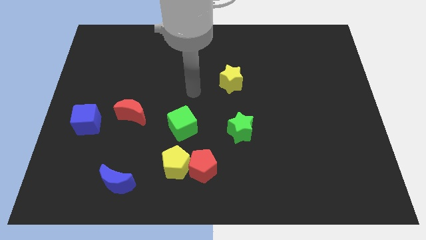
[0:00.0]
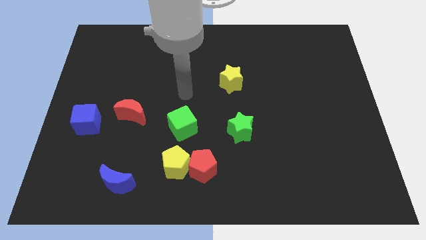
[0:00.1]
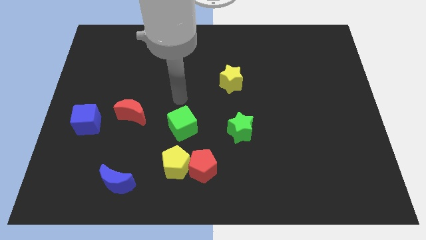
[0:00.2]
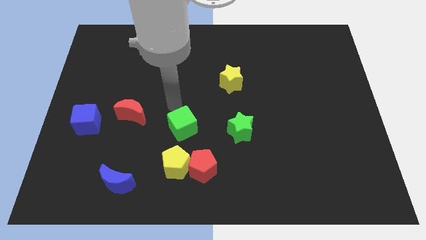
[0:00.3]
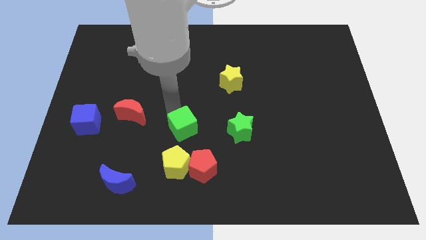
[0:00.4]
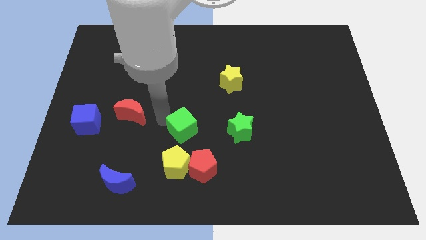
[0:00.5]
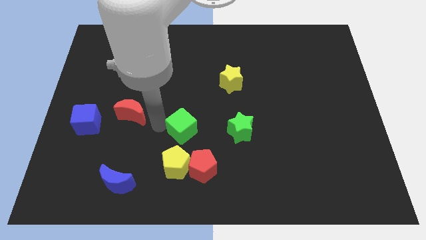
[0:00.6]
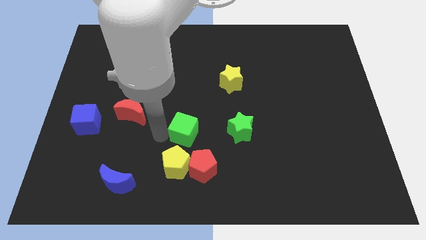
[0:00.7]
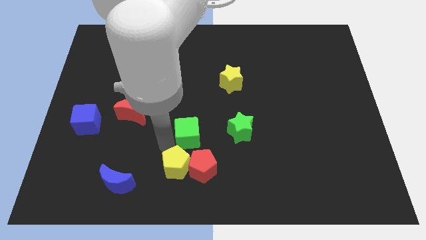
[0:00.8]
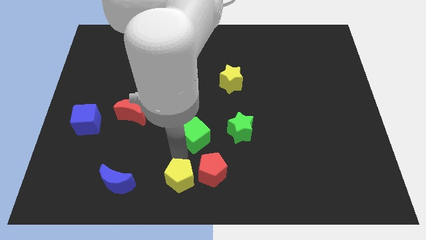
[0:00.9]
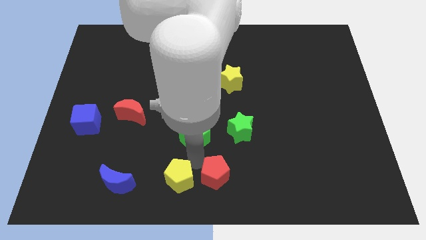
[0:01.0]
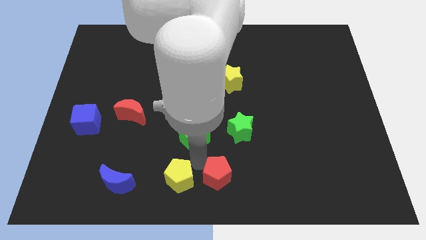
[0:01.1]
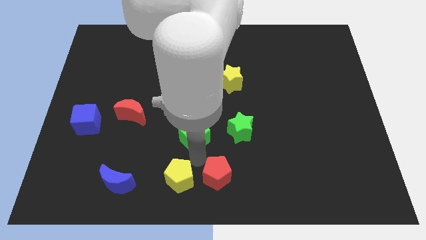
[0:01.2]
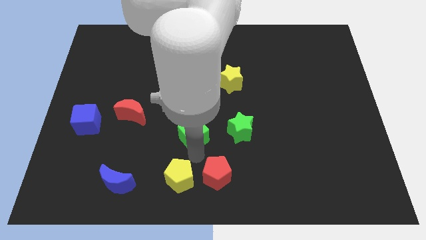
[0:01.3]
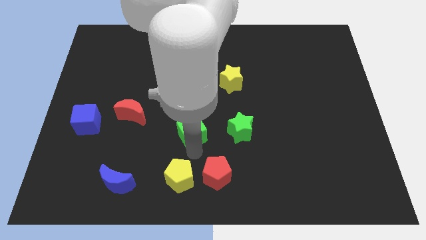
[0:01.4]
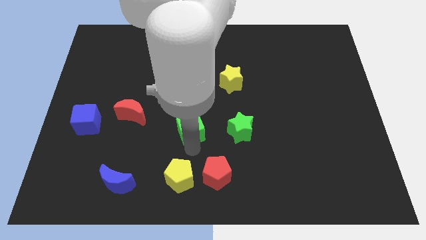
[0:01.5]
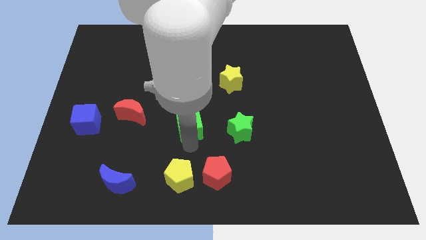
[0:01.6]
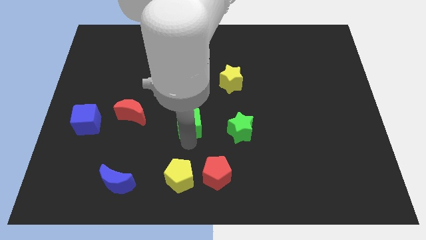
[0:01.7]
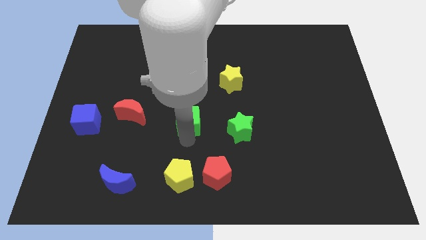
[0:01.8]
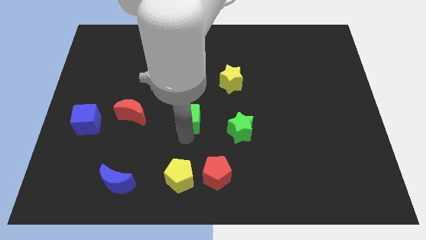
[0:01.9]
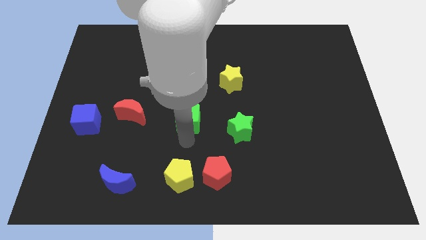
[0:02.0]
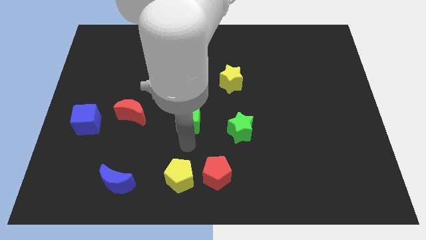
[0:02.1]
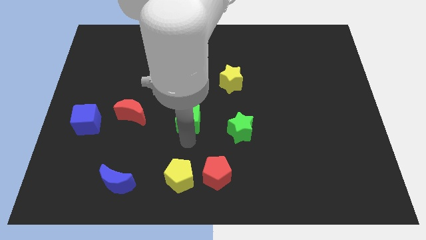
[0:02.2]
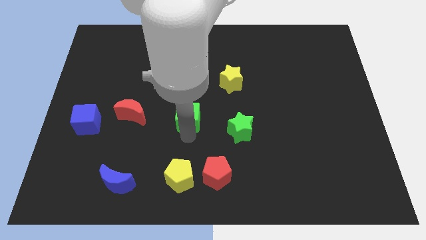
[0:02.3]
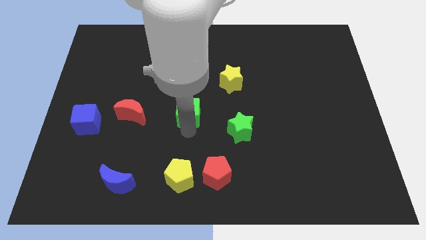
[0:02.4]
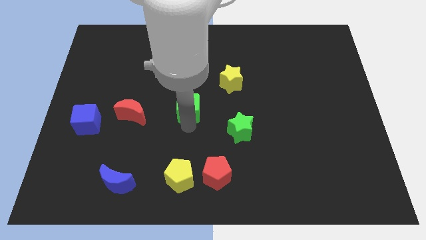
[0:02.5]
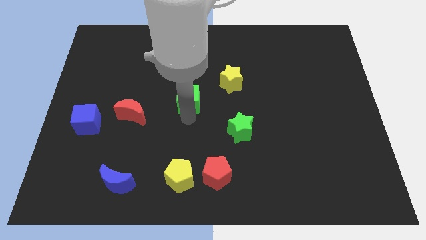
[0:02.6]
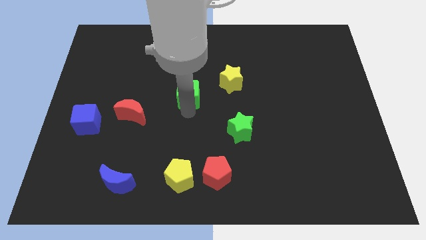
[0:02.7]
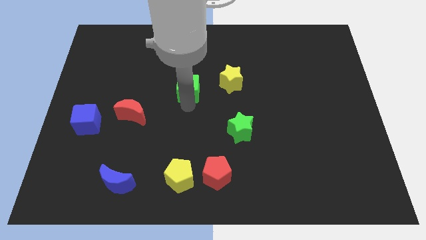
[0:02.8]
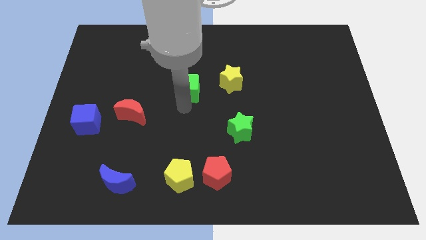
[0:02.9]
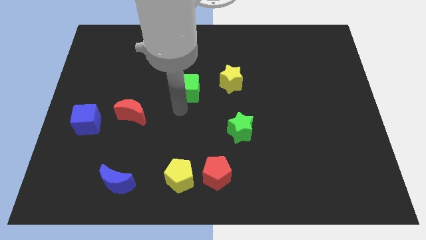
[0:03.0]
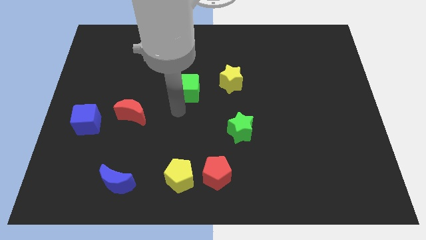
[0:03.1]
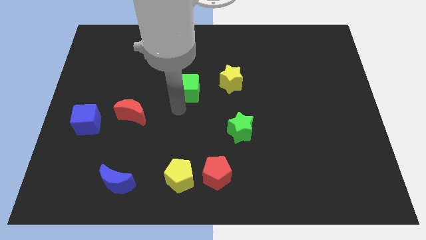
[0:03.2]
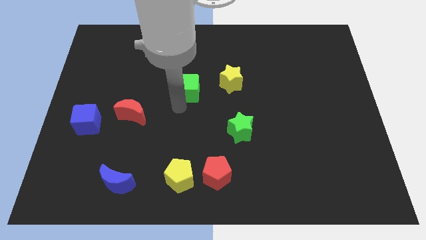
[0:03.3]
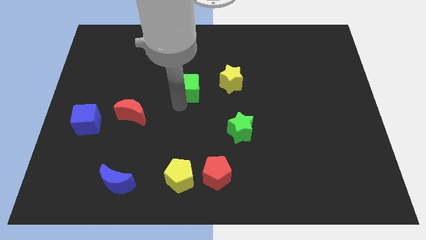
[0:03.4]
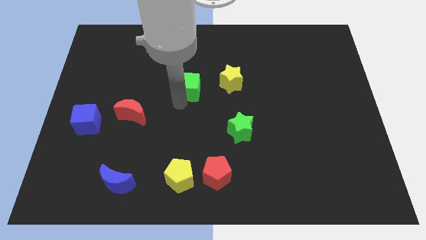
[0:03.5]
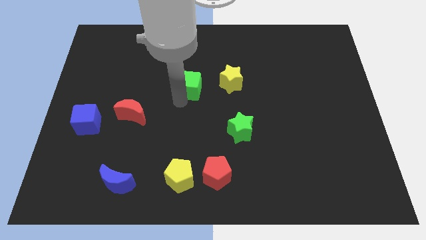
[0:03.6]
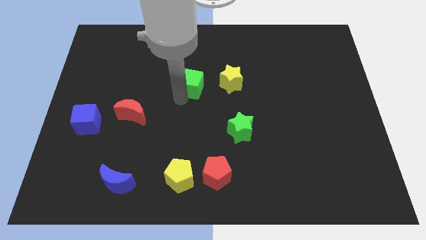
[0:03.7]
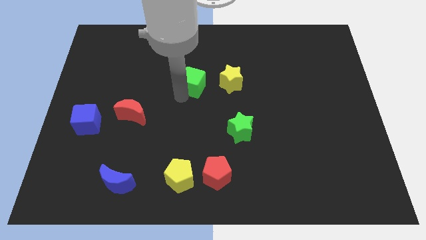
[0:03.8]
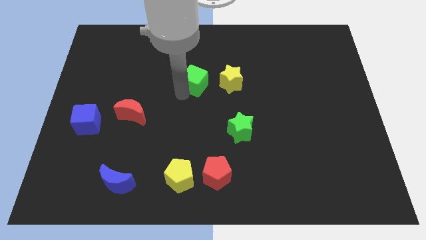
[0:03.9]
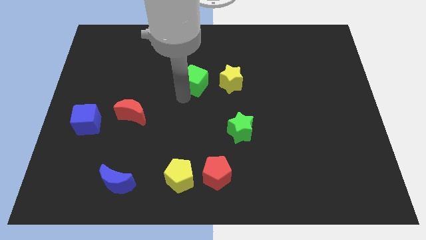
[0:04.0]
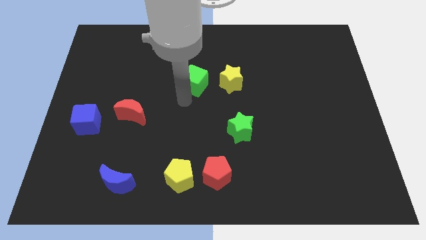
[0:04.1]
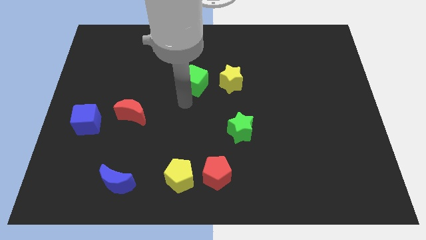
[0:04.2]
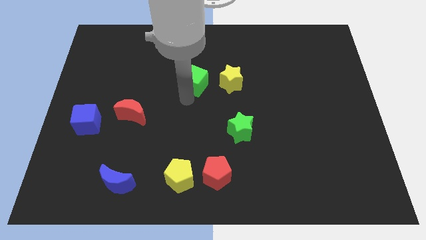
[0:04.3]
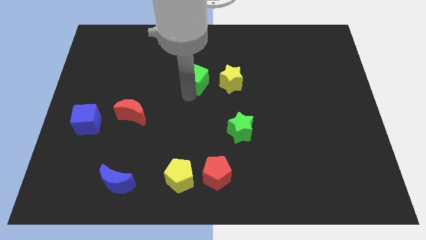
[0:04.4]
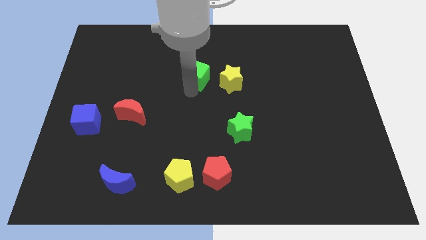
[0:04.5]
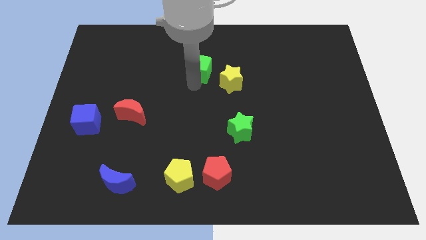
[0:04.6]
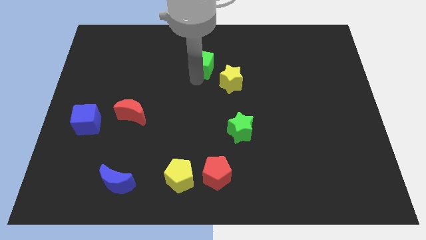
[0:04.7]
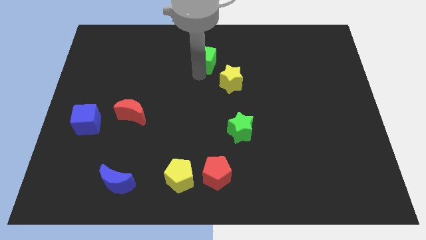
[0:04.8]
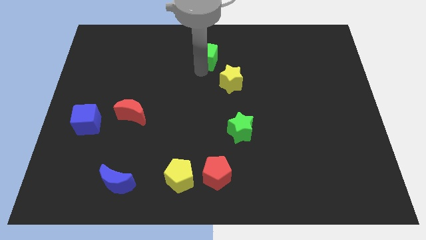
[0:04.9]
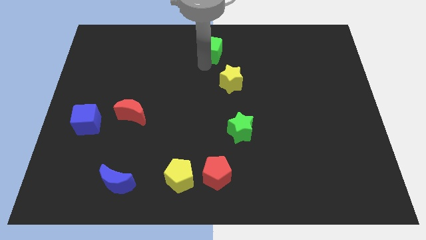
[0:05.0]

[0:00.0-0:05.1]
put the green cube to the top side

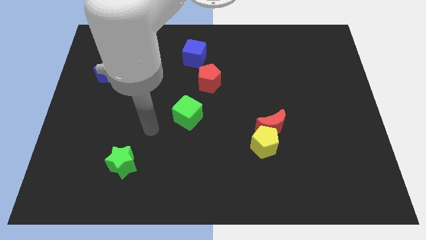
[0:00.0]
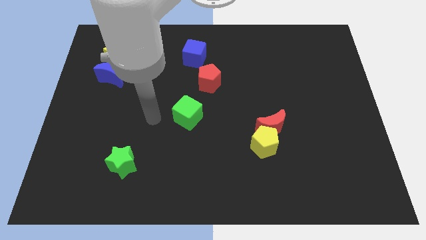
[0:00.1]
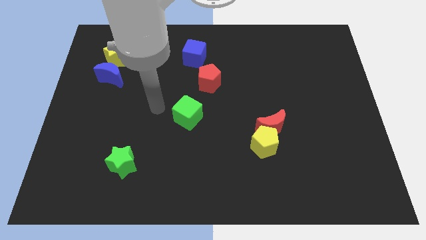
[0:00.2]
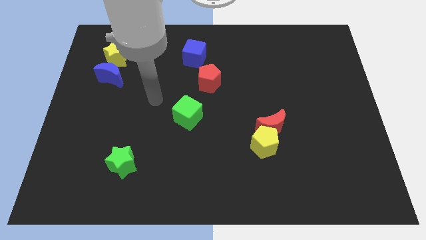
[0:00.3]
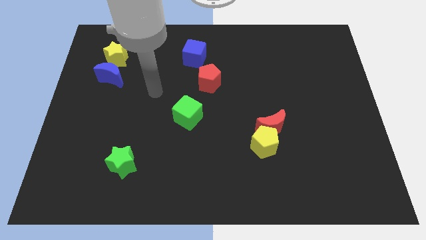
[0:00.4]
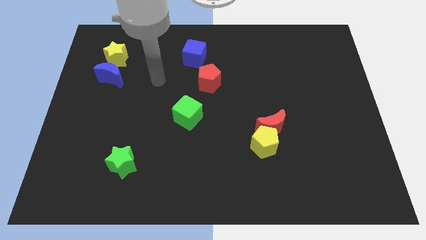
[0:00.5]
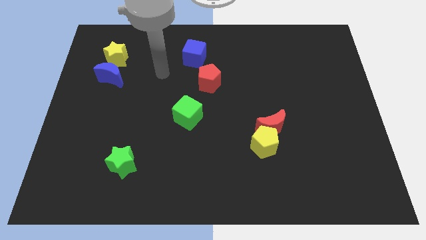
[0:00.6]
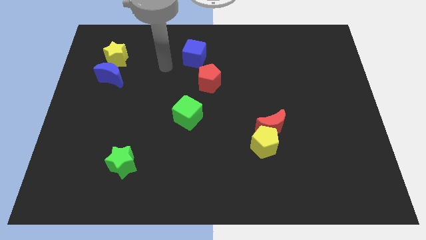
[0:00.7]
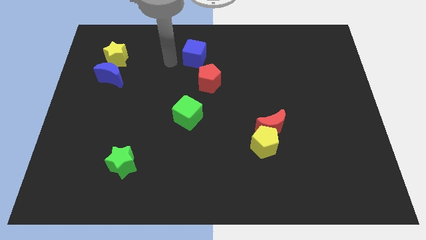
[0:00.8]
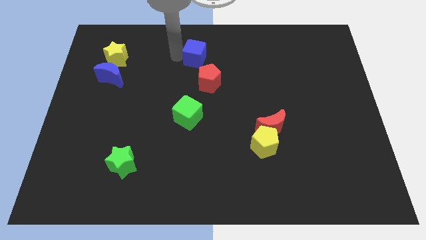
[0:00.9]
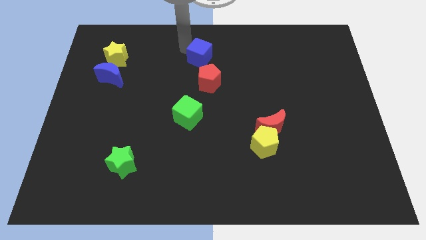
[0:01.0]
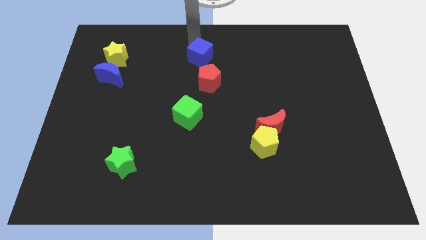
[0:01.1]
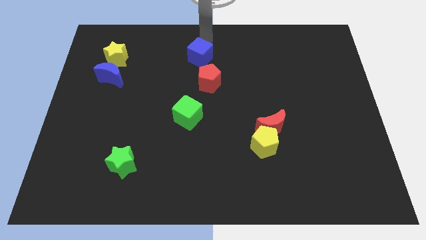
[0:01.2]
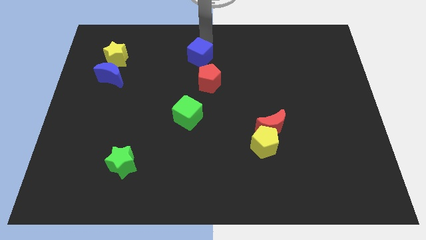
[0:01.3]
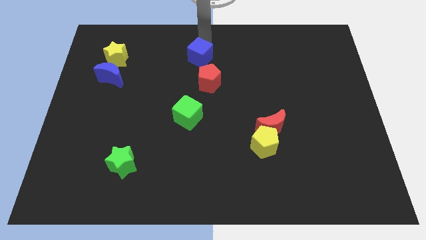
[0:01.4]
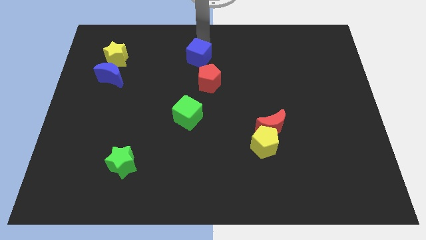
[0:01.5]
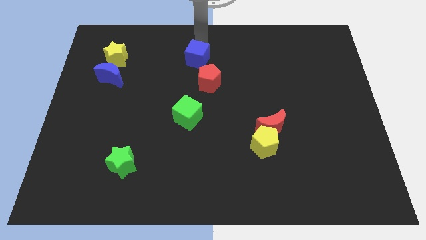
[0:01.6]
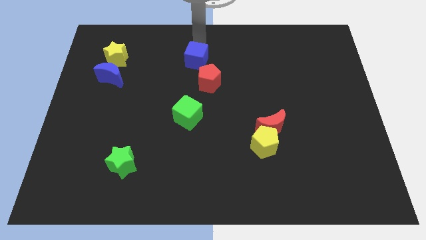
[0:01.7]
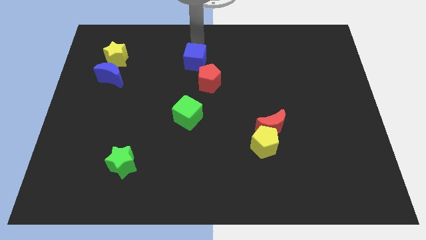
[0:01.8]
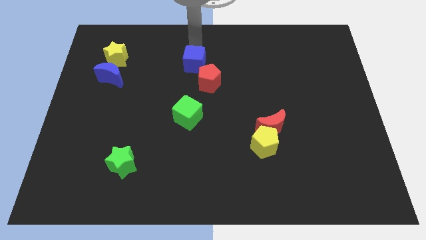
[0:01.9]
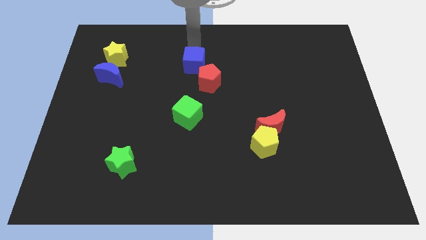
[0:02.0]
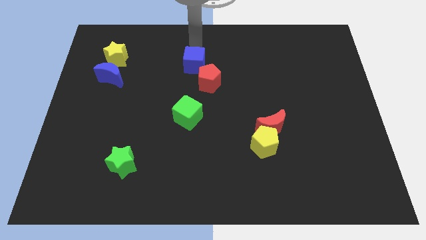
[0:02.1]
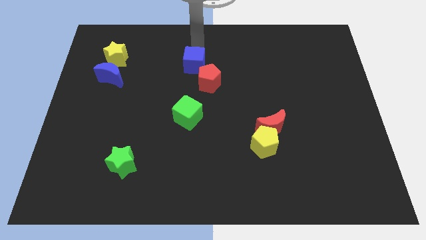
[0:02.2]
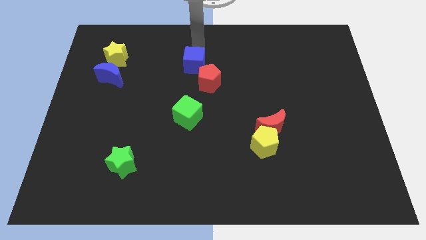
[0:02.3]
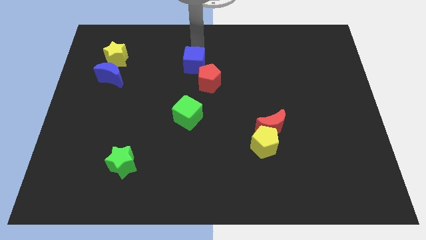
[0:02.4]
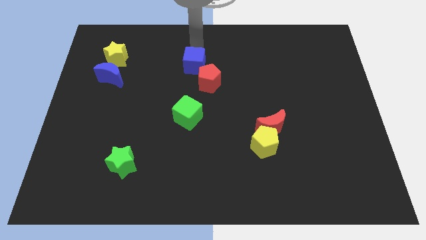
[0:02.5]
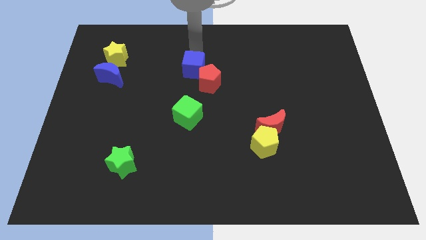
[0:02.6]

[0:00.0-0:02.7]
push the blue cube to the center of the board
